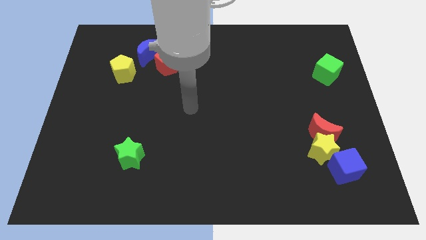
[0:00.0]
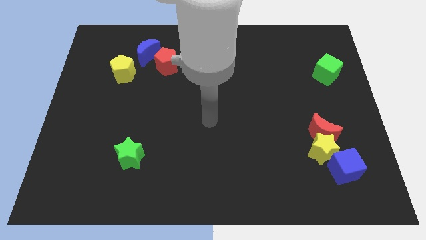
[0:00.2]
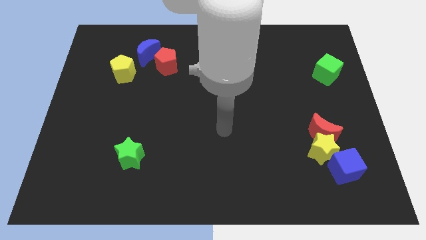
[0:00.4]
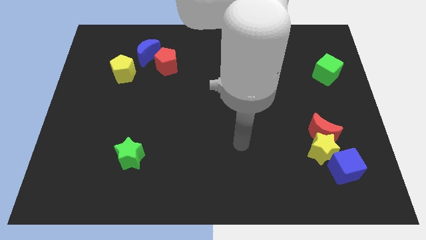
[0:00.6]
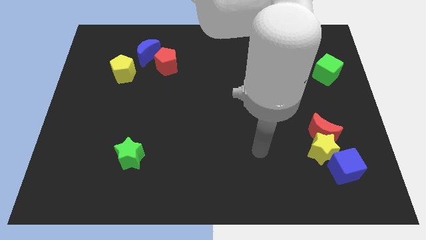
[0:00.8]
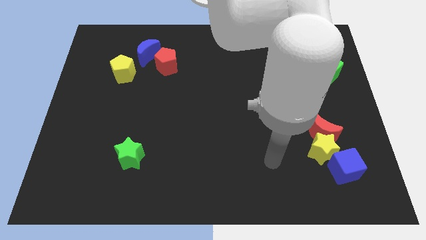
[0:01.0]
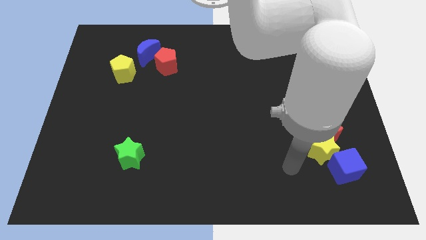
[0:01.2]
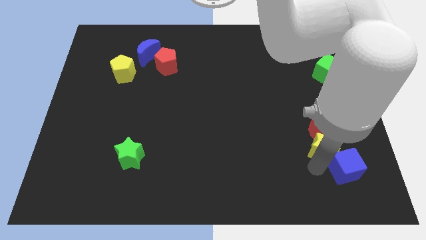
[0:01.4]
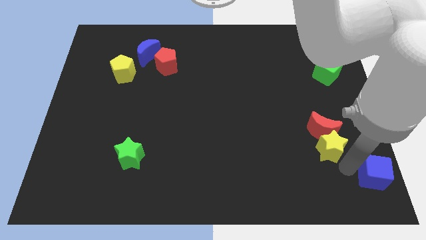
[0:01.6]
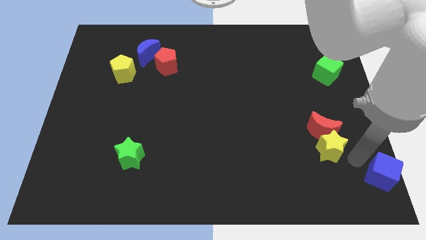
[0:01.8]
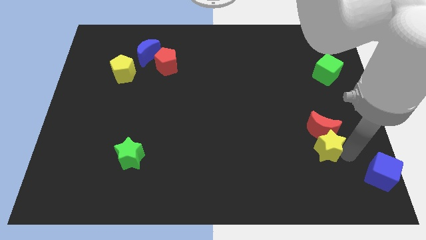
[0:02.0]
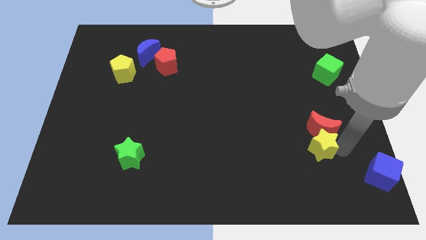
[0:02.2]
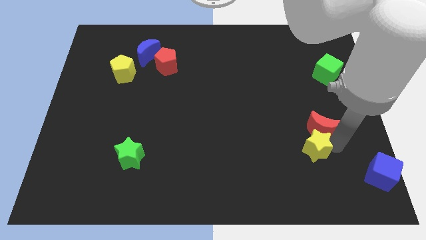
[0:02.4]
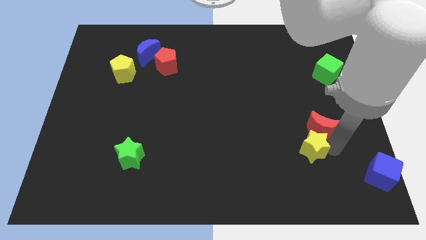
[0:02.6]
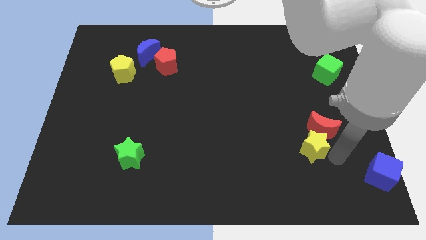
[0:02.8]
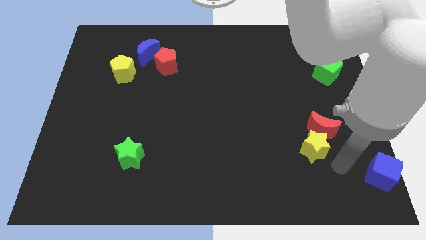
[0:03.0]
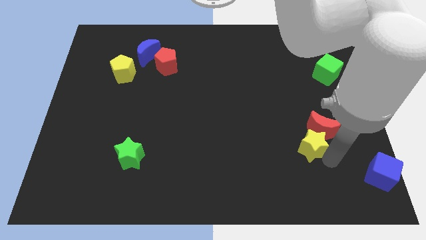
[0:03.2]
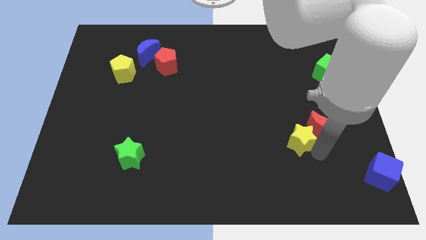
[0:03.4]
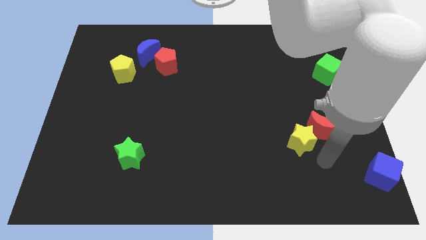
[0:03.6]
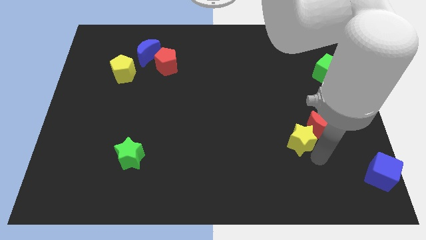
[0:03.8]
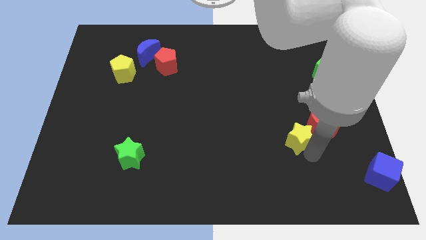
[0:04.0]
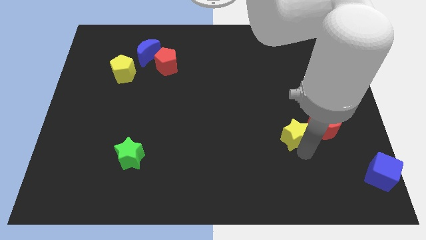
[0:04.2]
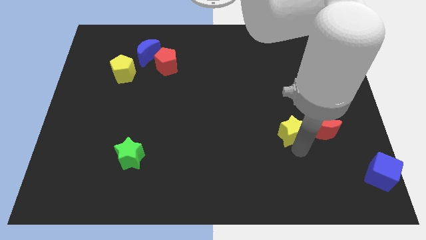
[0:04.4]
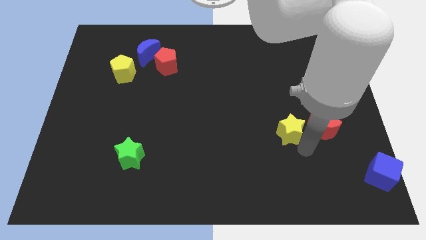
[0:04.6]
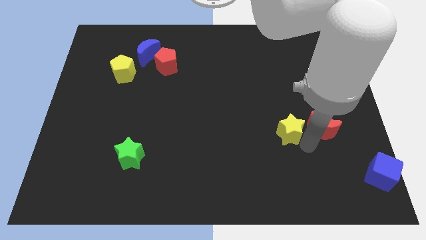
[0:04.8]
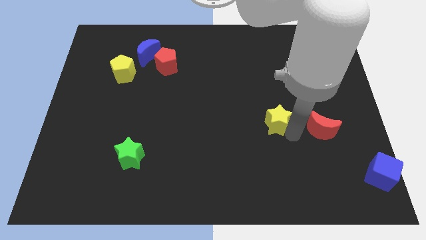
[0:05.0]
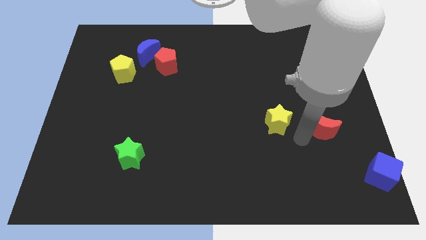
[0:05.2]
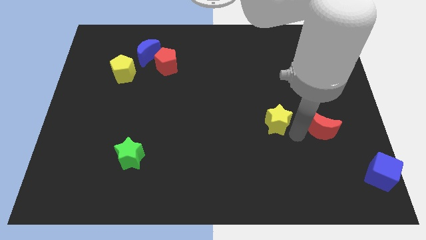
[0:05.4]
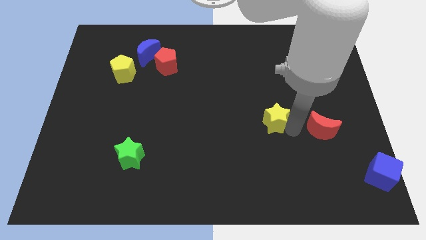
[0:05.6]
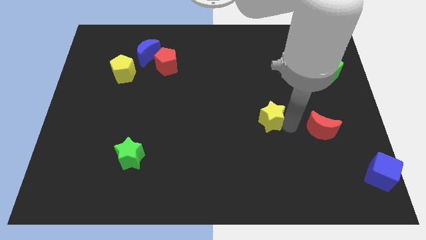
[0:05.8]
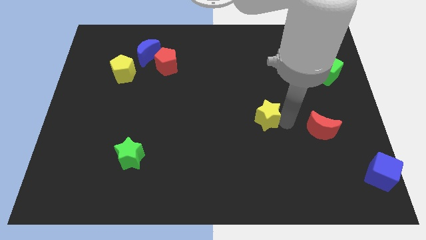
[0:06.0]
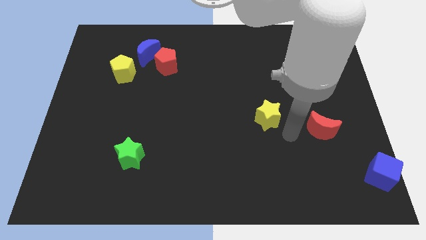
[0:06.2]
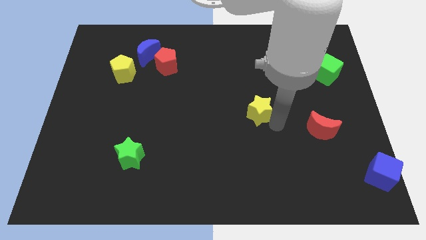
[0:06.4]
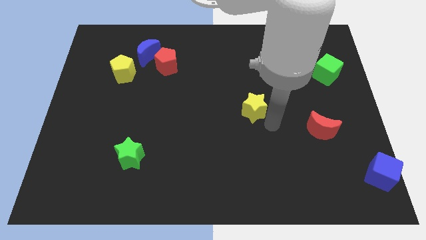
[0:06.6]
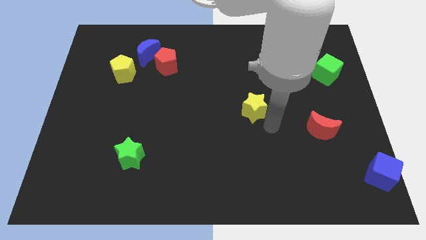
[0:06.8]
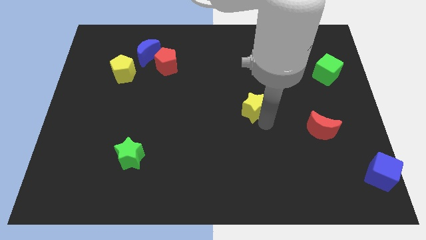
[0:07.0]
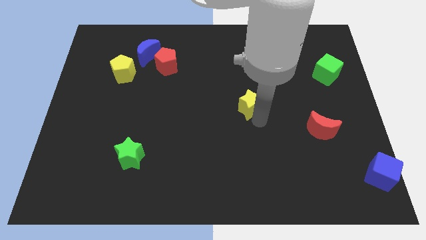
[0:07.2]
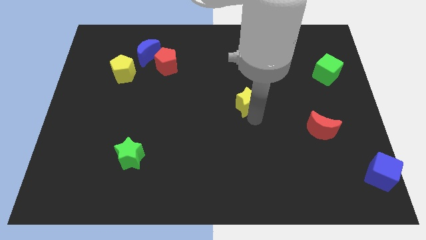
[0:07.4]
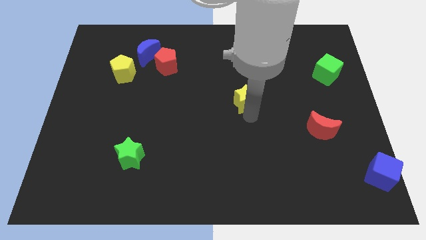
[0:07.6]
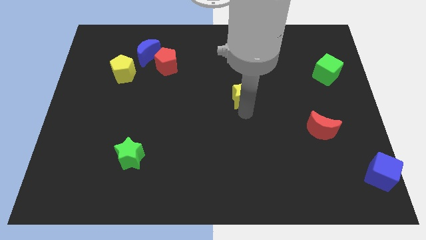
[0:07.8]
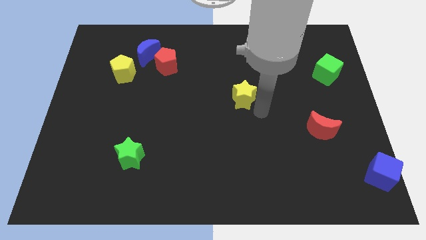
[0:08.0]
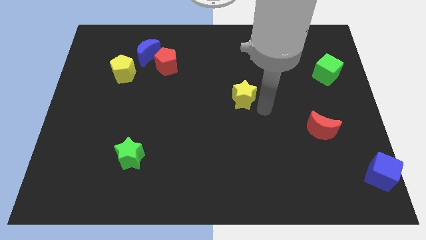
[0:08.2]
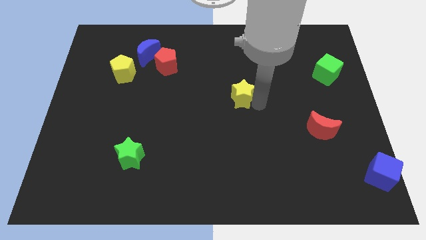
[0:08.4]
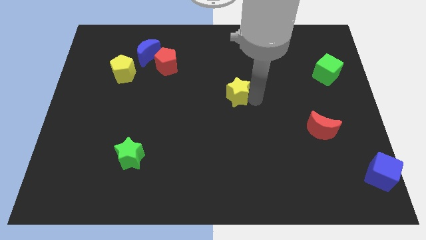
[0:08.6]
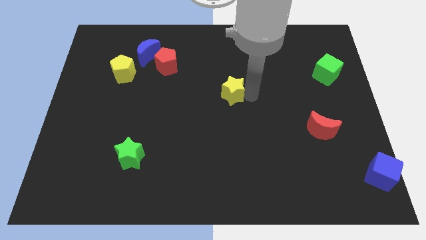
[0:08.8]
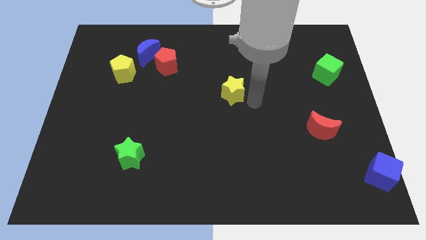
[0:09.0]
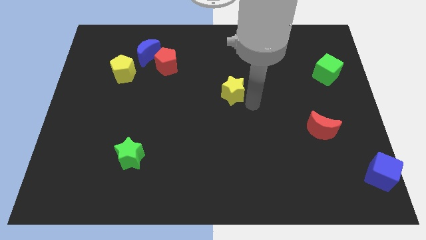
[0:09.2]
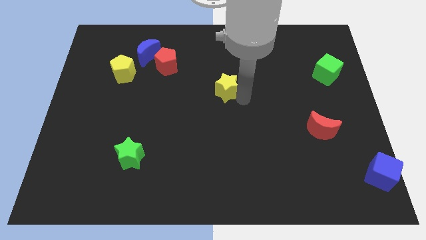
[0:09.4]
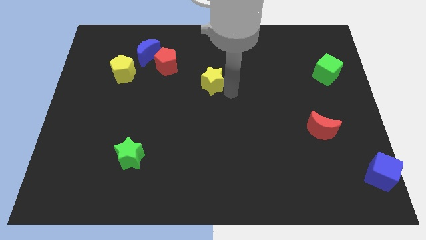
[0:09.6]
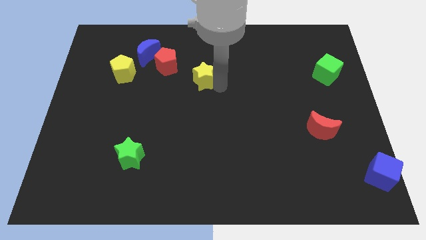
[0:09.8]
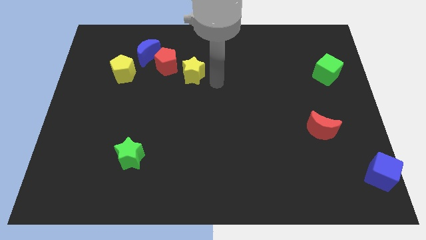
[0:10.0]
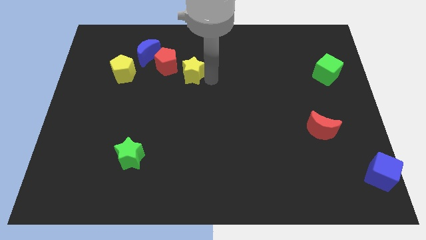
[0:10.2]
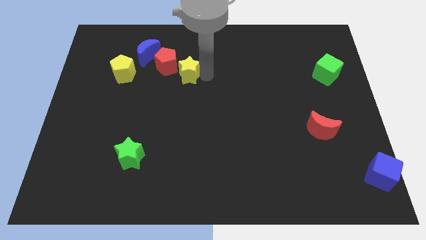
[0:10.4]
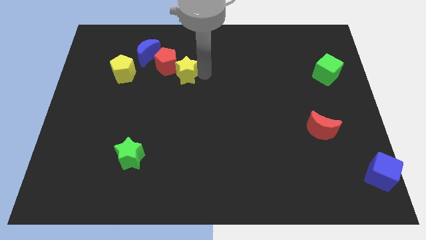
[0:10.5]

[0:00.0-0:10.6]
push the yellow star next to the red pentagon

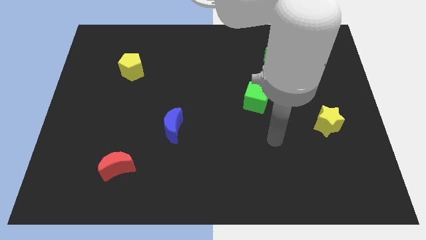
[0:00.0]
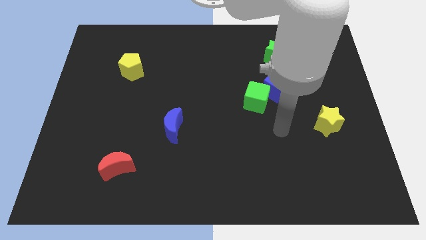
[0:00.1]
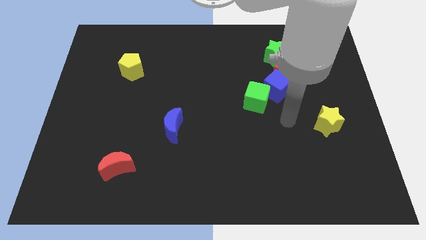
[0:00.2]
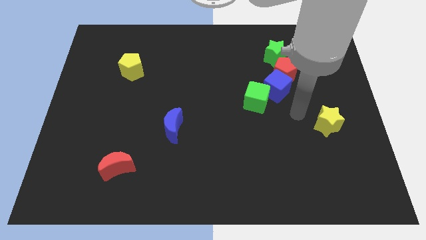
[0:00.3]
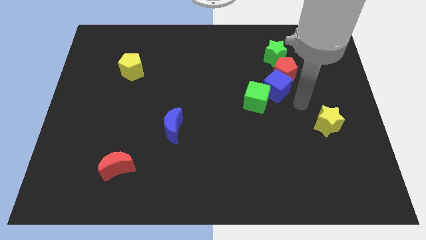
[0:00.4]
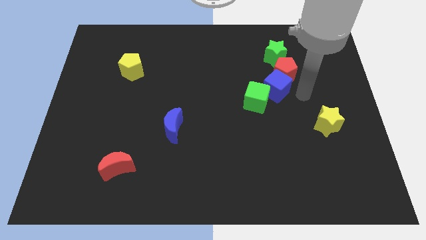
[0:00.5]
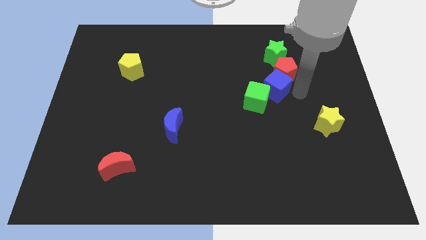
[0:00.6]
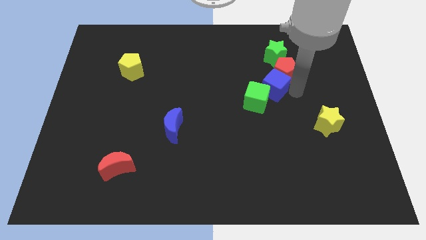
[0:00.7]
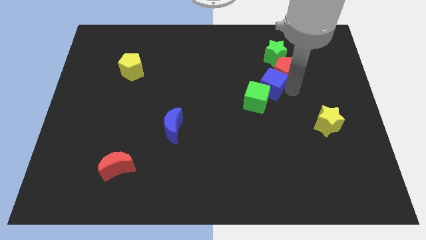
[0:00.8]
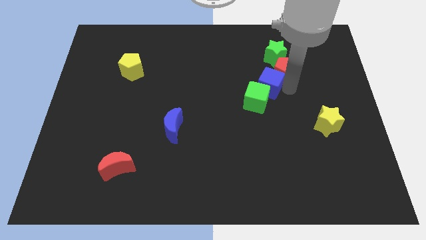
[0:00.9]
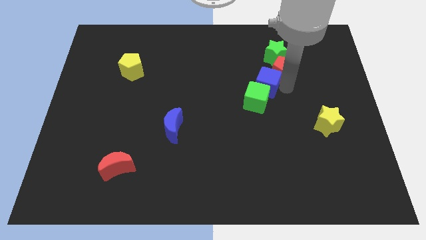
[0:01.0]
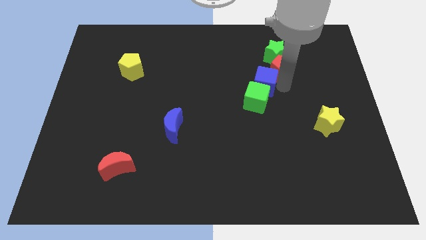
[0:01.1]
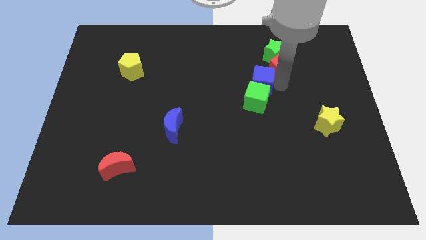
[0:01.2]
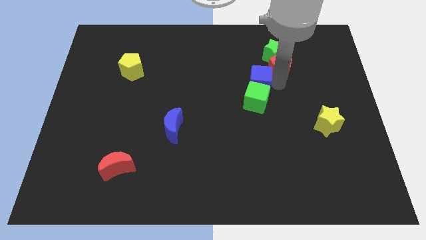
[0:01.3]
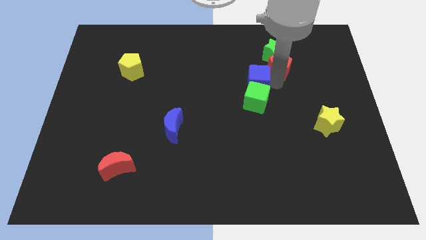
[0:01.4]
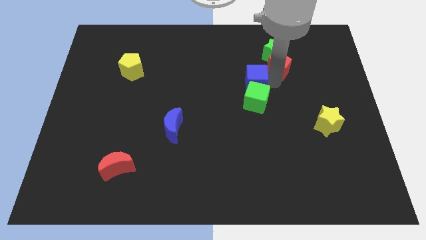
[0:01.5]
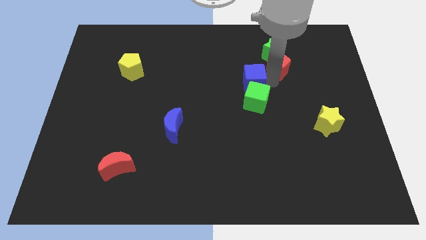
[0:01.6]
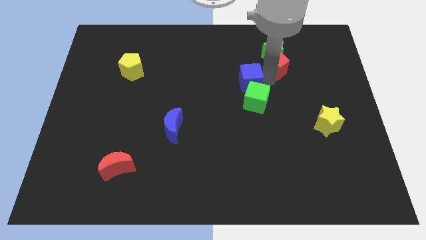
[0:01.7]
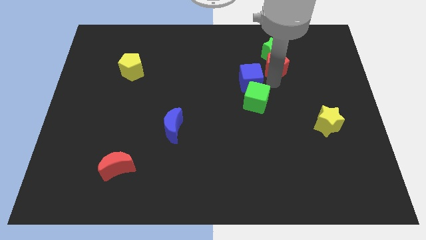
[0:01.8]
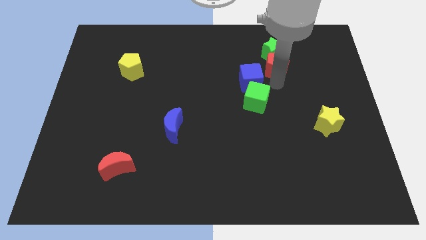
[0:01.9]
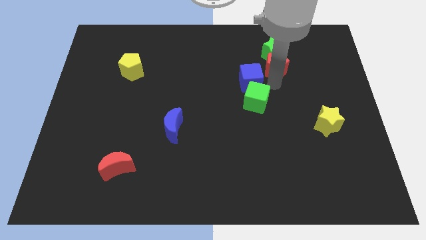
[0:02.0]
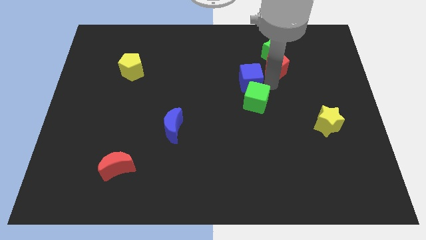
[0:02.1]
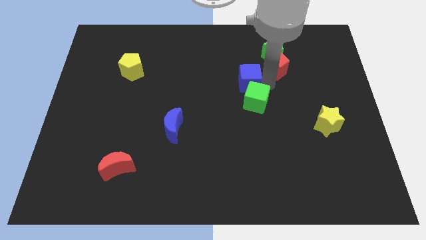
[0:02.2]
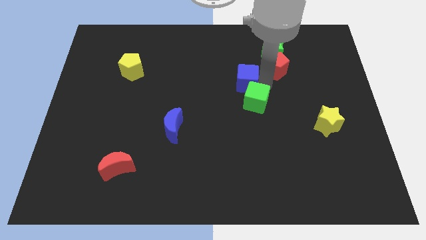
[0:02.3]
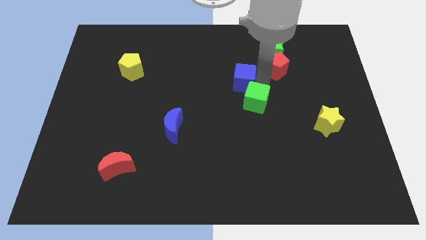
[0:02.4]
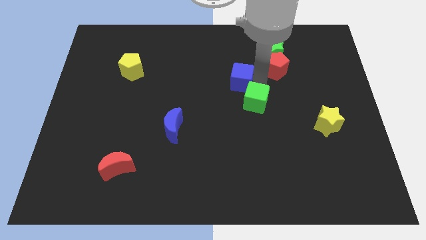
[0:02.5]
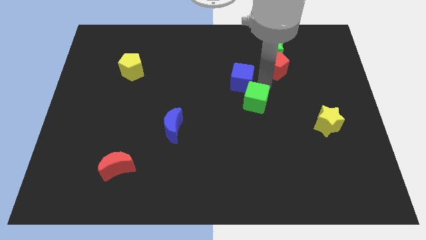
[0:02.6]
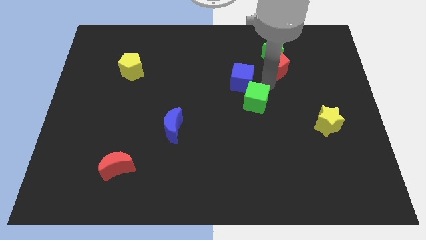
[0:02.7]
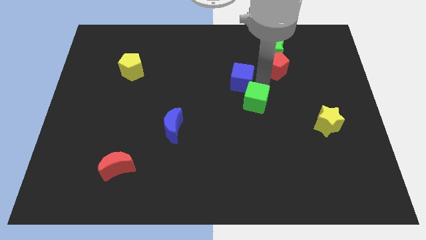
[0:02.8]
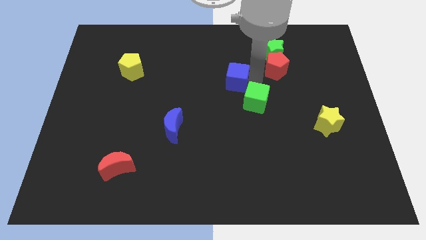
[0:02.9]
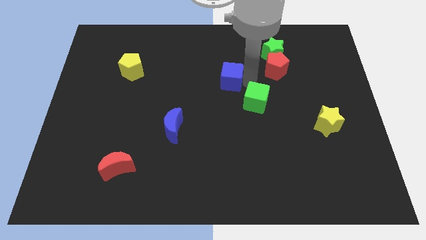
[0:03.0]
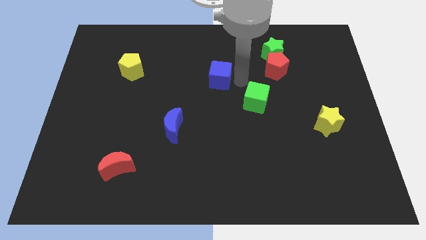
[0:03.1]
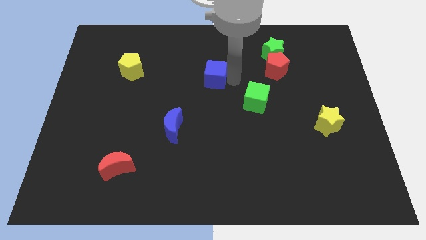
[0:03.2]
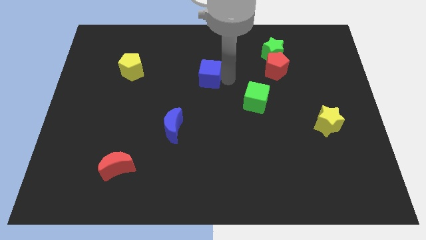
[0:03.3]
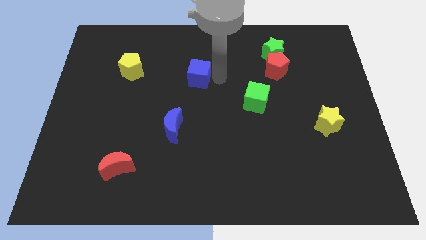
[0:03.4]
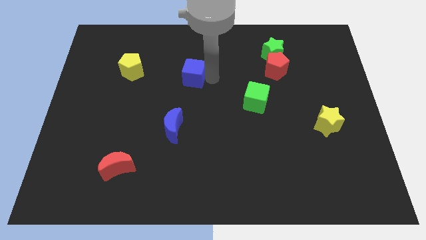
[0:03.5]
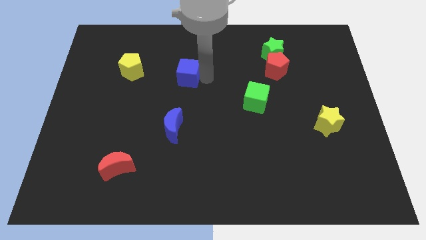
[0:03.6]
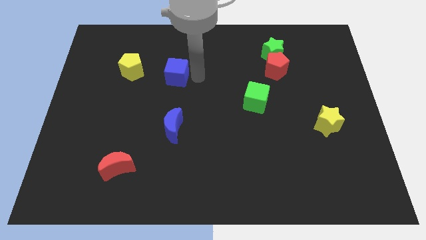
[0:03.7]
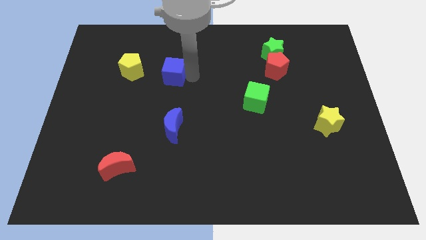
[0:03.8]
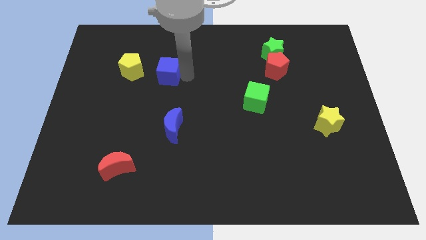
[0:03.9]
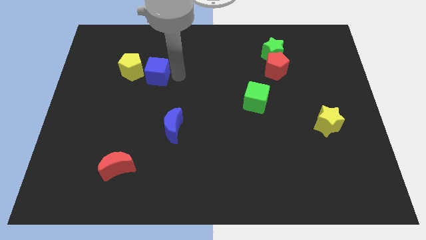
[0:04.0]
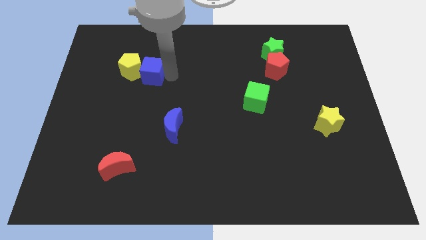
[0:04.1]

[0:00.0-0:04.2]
move the blue cube towards the yellow pentagon
